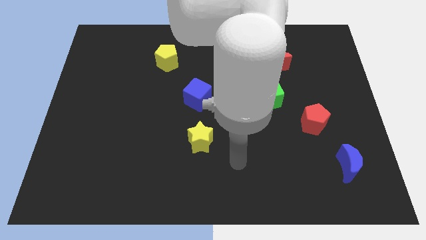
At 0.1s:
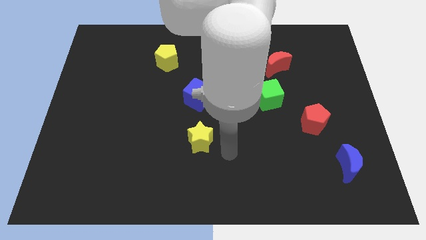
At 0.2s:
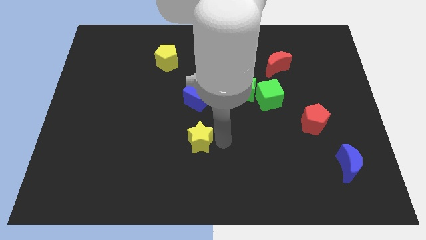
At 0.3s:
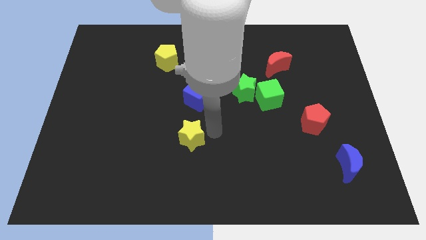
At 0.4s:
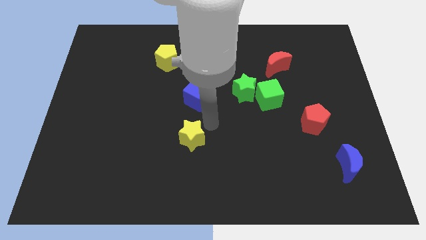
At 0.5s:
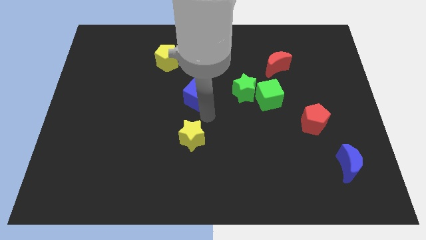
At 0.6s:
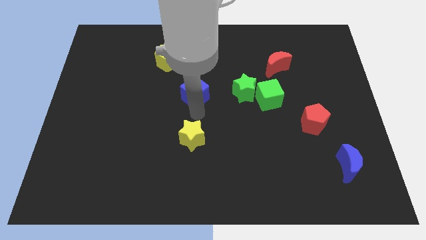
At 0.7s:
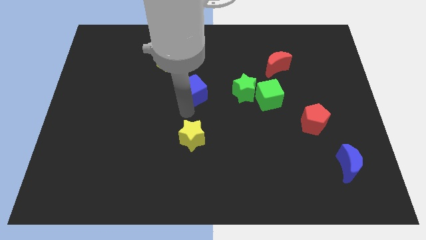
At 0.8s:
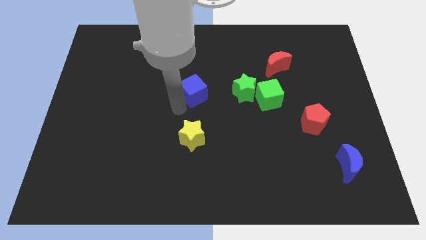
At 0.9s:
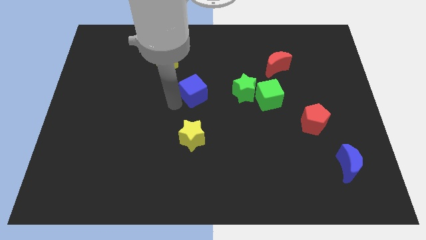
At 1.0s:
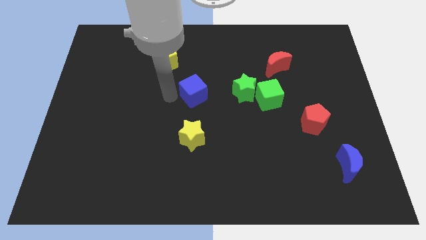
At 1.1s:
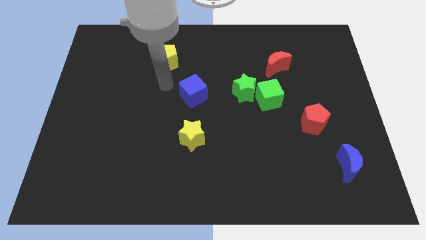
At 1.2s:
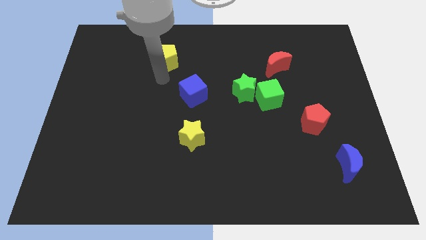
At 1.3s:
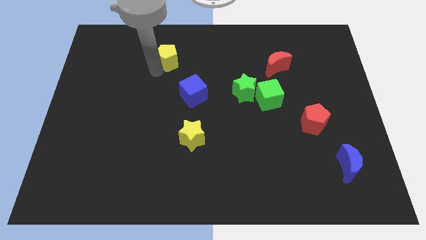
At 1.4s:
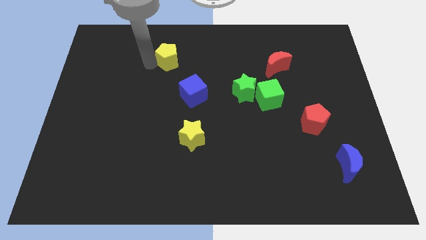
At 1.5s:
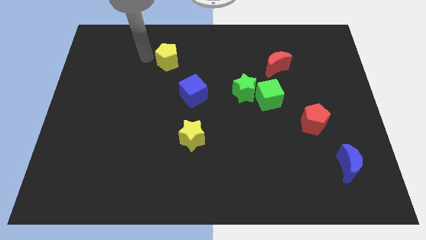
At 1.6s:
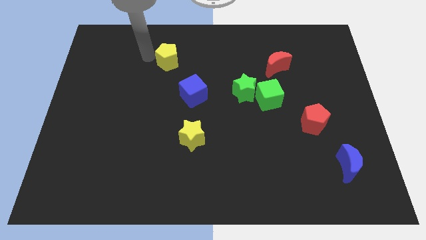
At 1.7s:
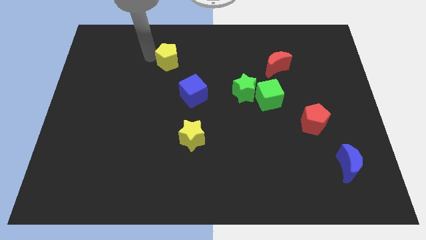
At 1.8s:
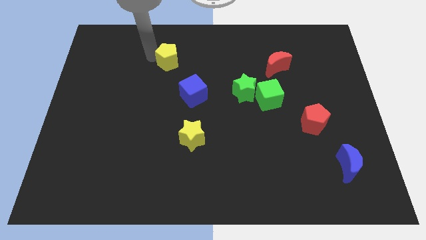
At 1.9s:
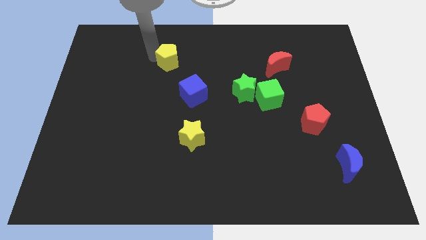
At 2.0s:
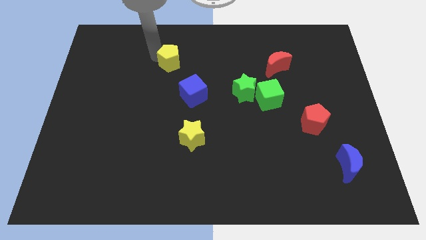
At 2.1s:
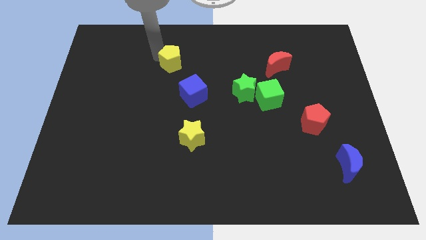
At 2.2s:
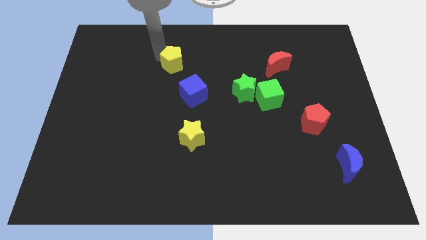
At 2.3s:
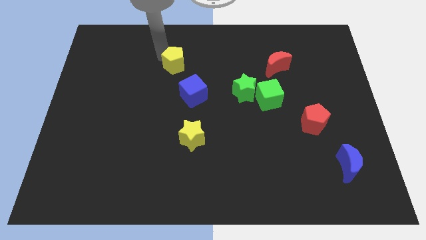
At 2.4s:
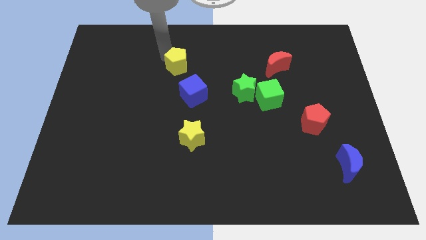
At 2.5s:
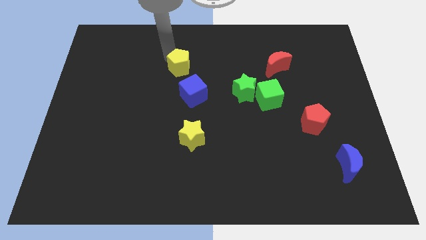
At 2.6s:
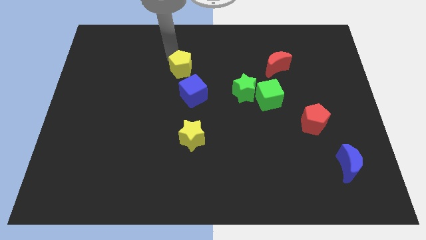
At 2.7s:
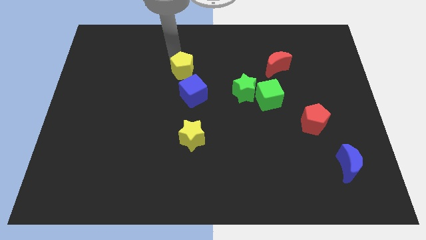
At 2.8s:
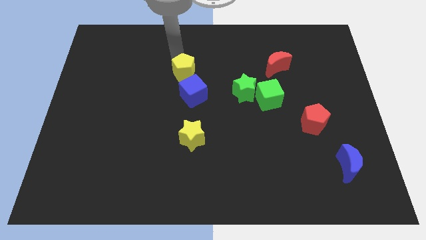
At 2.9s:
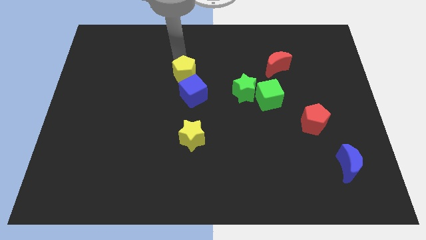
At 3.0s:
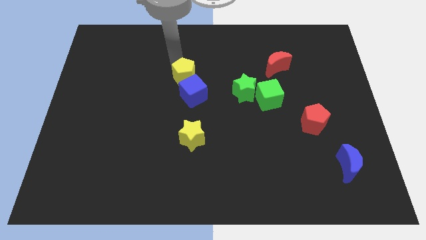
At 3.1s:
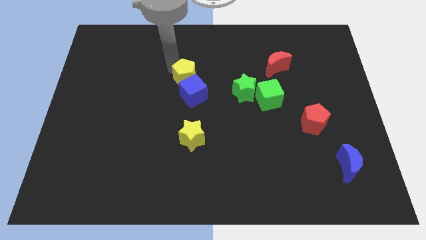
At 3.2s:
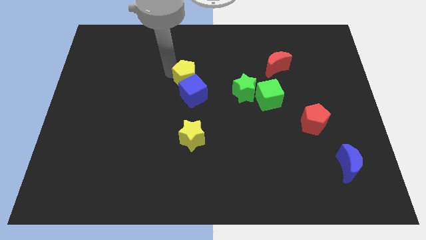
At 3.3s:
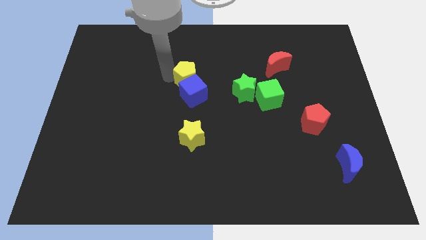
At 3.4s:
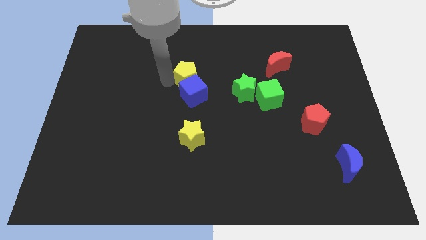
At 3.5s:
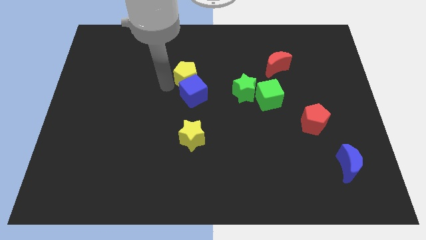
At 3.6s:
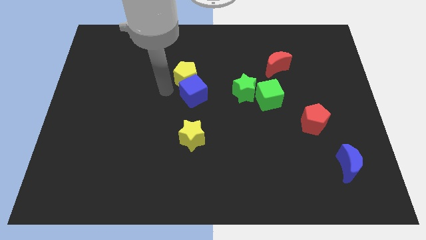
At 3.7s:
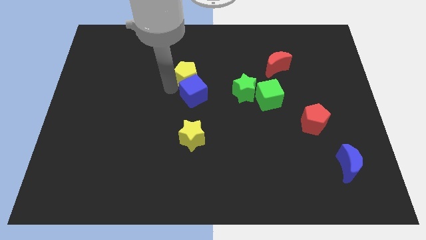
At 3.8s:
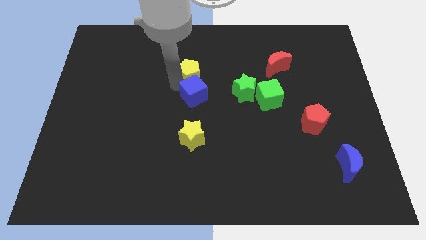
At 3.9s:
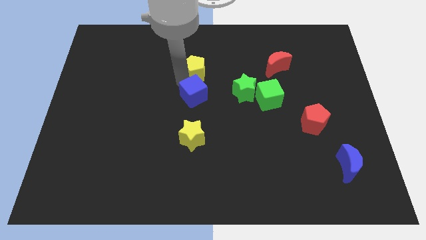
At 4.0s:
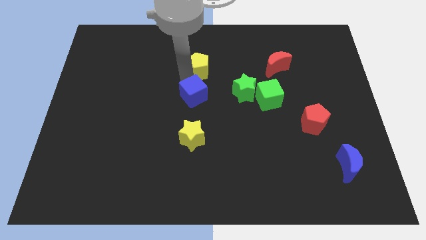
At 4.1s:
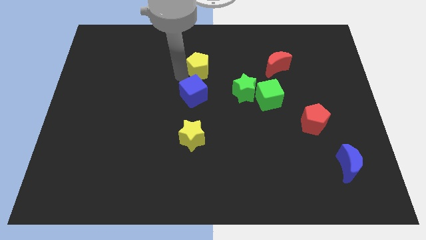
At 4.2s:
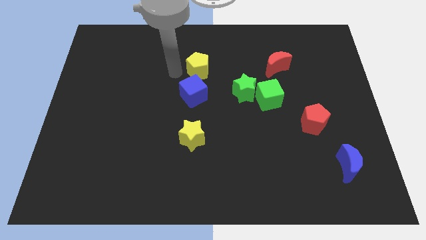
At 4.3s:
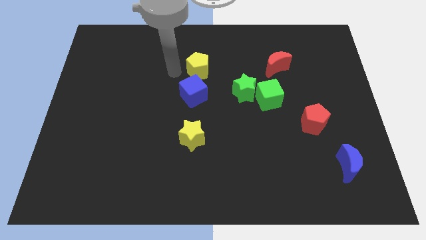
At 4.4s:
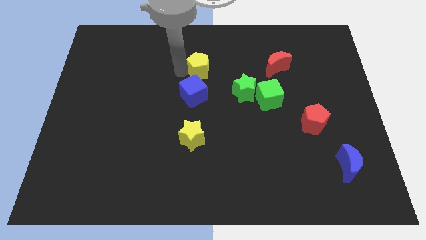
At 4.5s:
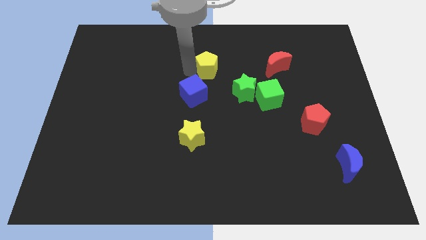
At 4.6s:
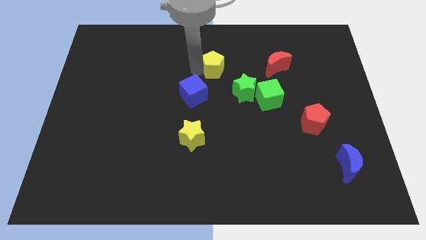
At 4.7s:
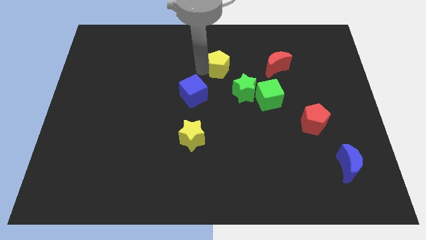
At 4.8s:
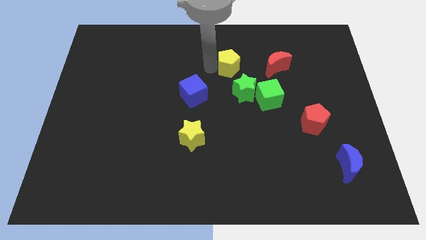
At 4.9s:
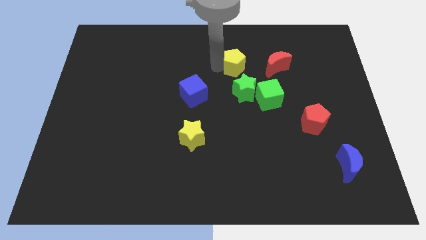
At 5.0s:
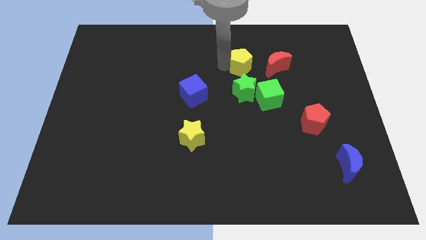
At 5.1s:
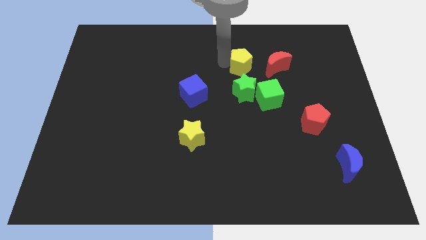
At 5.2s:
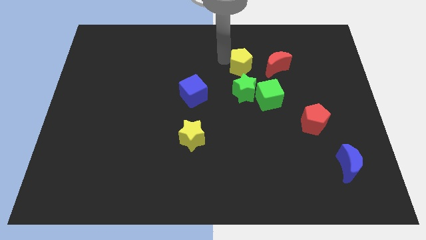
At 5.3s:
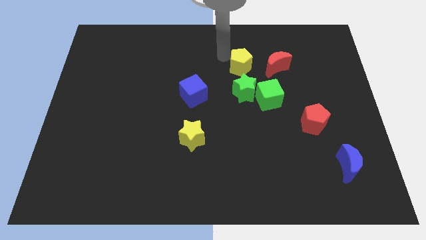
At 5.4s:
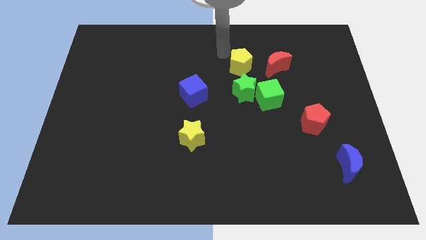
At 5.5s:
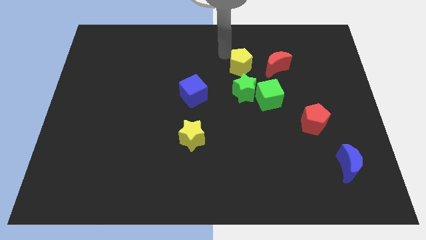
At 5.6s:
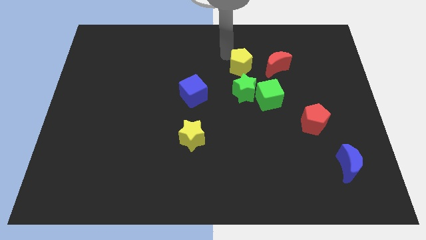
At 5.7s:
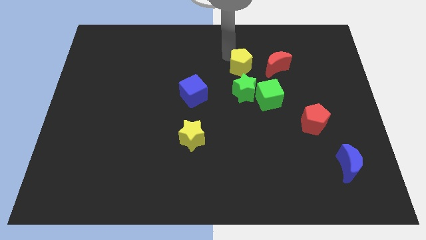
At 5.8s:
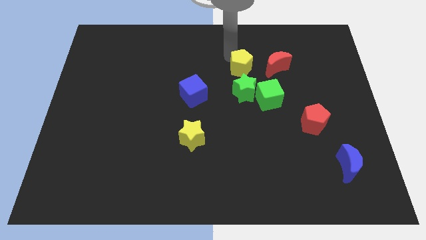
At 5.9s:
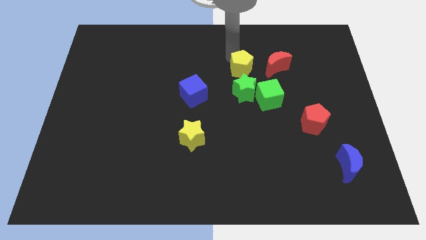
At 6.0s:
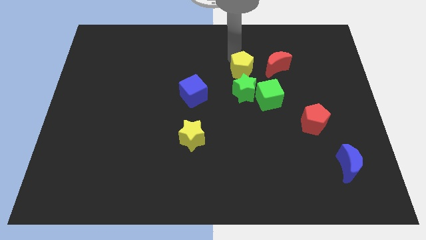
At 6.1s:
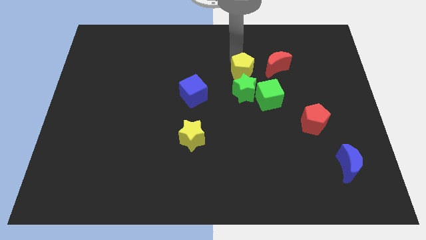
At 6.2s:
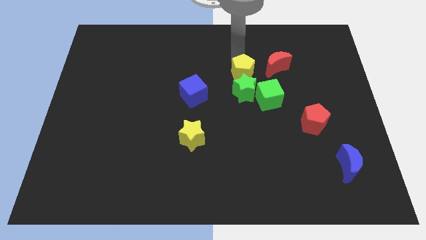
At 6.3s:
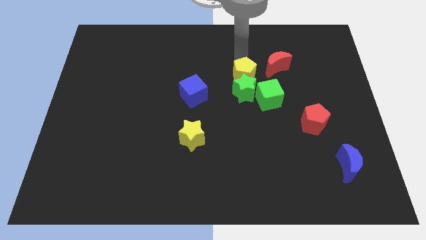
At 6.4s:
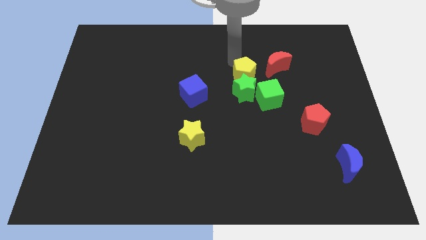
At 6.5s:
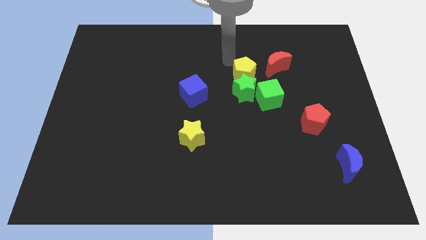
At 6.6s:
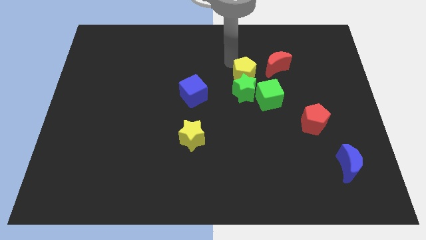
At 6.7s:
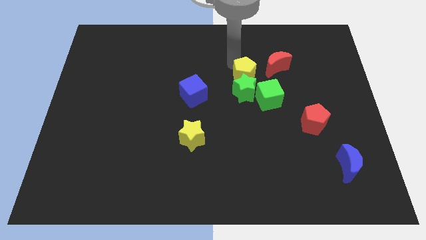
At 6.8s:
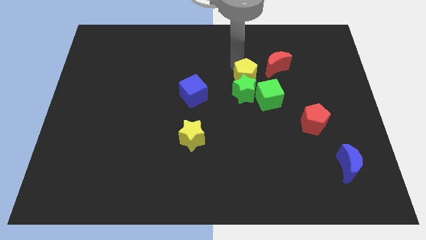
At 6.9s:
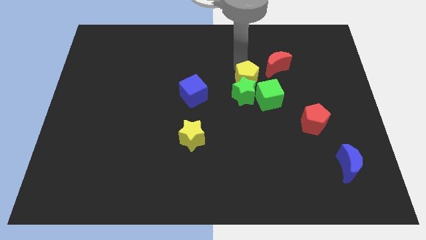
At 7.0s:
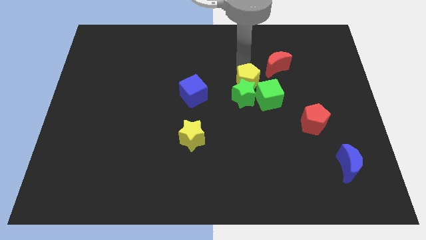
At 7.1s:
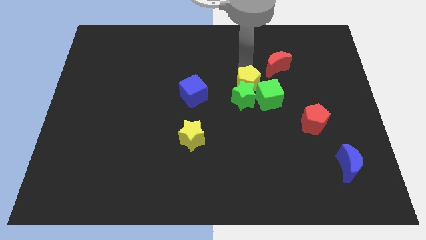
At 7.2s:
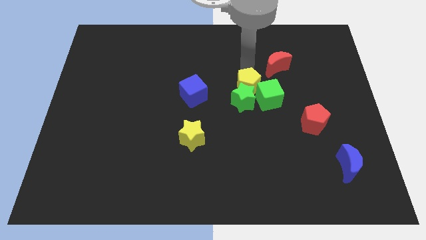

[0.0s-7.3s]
put the yellow pentagon close to the green cube
